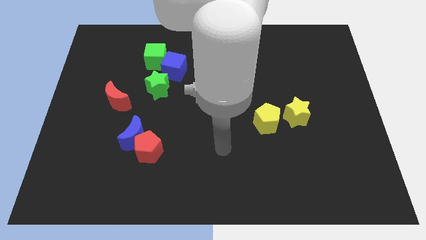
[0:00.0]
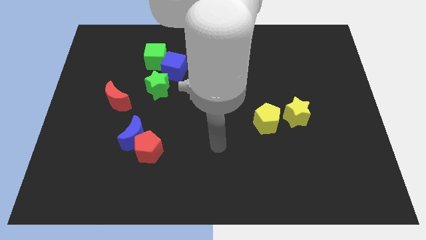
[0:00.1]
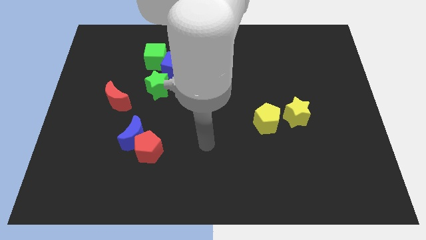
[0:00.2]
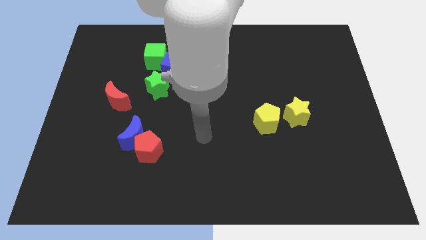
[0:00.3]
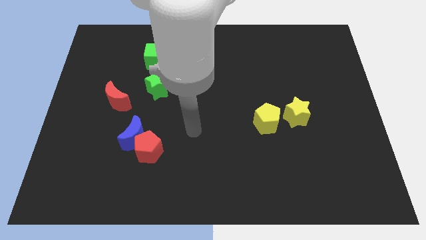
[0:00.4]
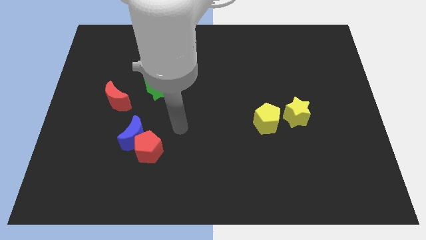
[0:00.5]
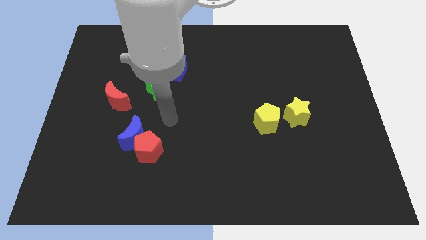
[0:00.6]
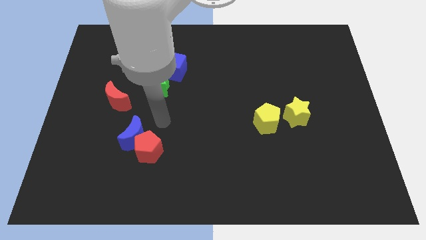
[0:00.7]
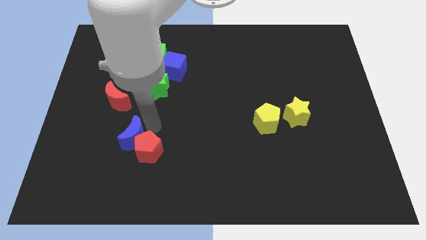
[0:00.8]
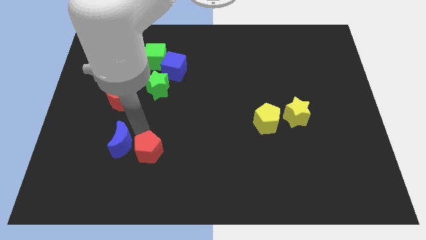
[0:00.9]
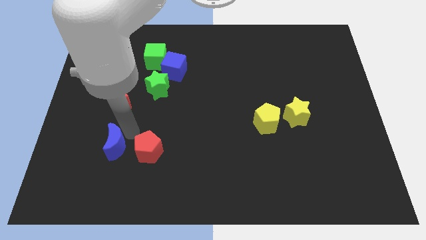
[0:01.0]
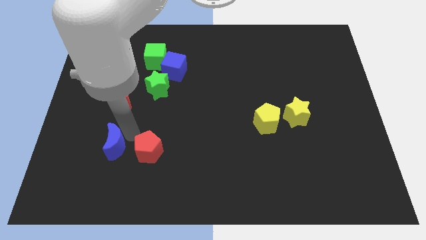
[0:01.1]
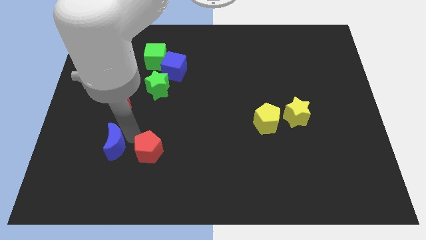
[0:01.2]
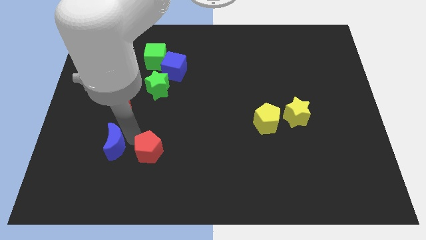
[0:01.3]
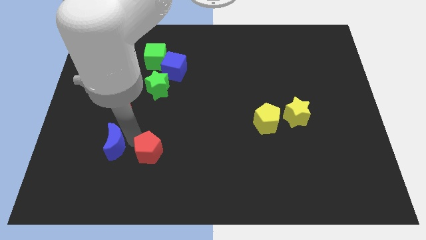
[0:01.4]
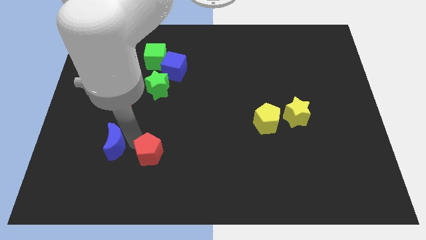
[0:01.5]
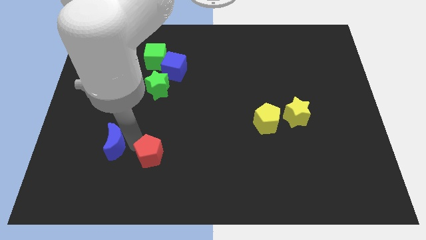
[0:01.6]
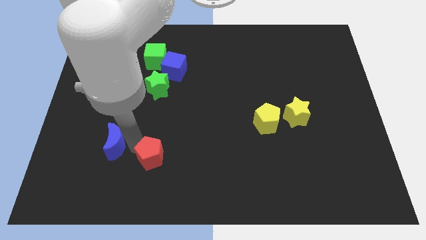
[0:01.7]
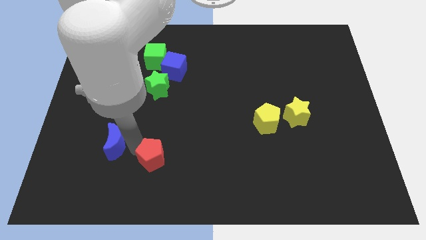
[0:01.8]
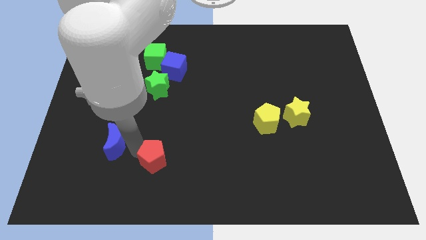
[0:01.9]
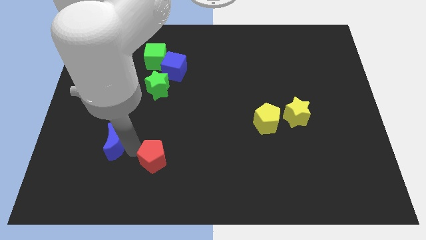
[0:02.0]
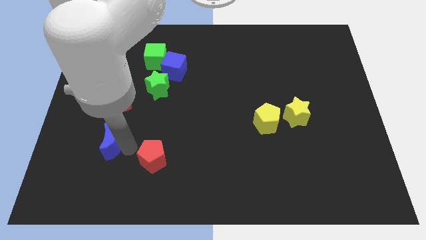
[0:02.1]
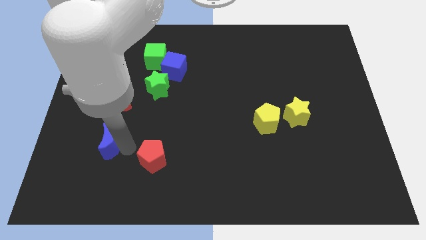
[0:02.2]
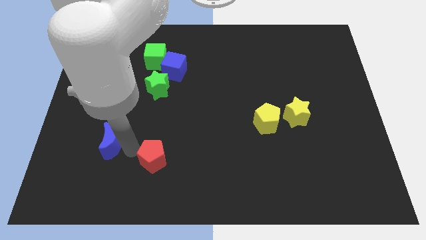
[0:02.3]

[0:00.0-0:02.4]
separate the red pentagon from the blue moon

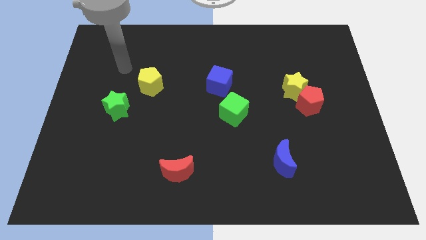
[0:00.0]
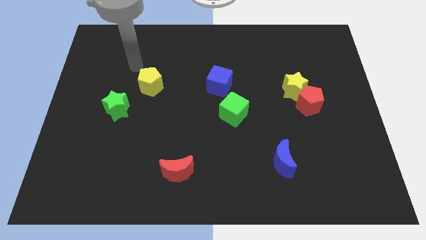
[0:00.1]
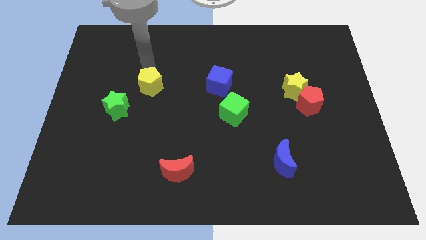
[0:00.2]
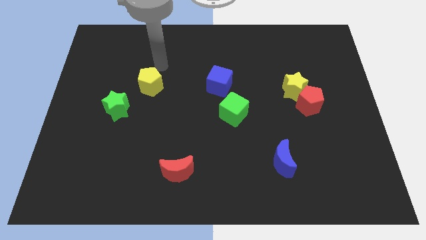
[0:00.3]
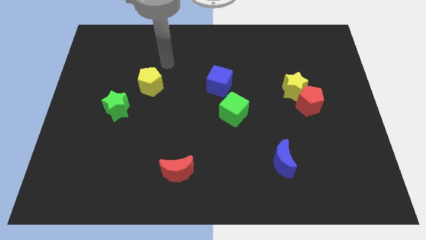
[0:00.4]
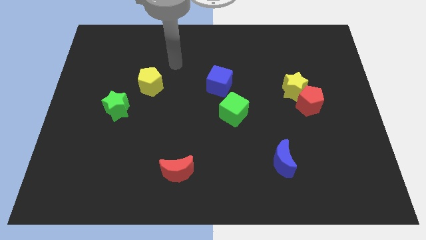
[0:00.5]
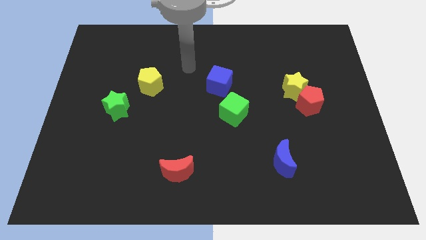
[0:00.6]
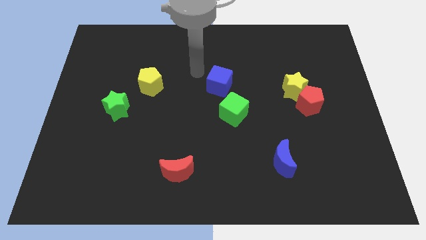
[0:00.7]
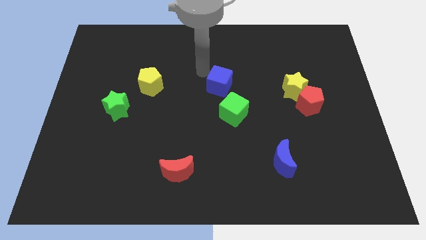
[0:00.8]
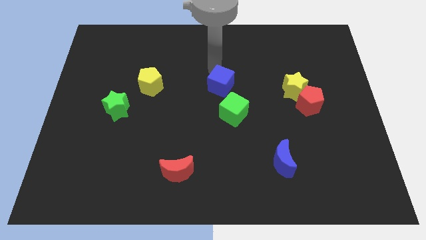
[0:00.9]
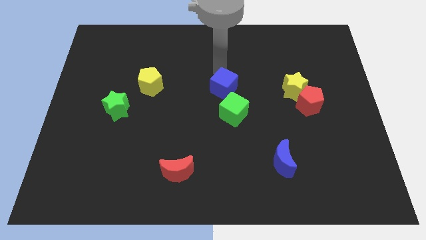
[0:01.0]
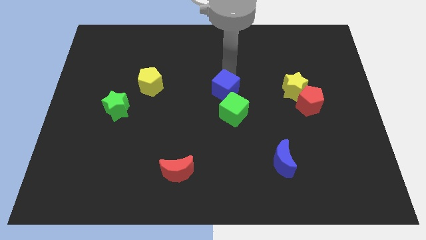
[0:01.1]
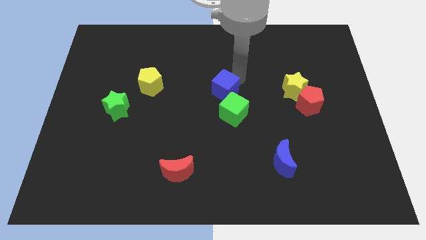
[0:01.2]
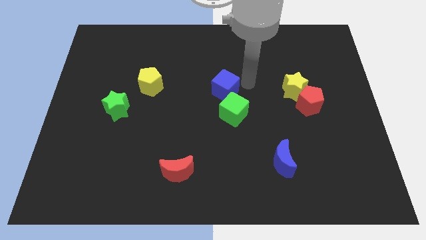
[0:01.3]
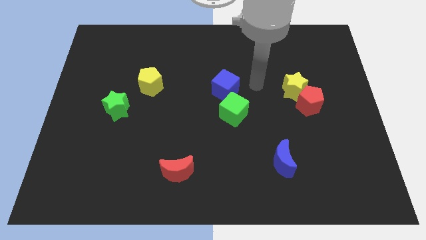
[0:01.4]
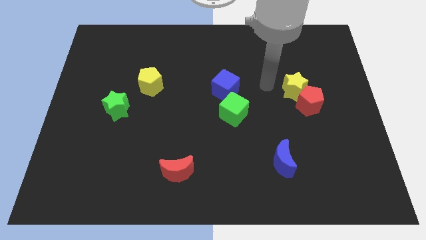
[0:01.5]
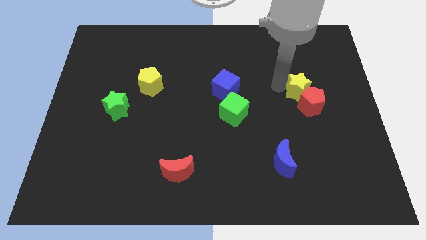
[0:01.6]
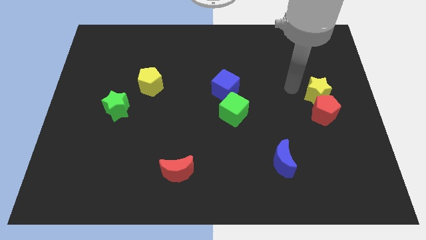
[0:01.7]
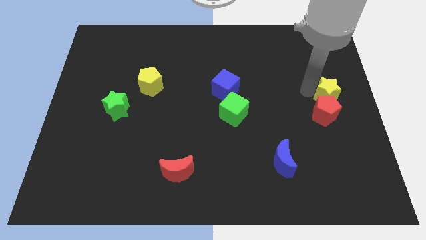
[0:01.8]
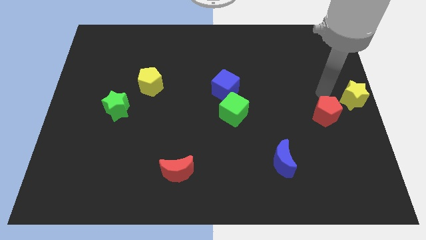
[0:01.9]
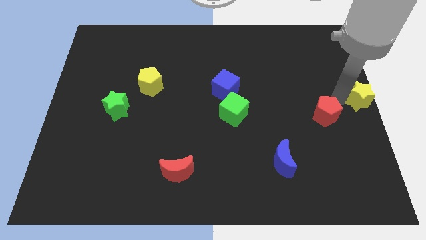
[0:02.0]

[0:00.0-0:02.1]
pull the red pentagon apart from the yellow star

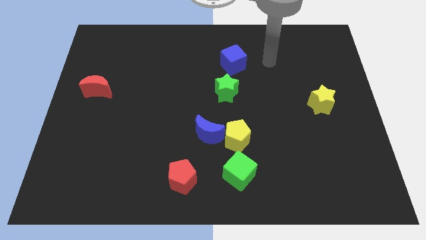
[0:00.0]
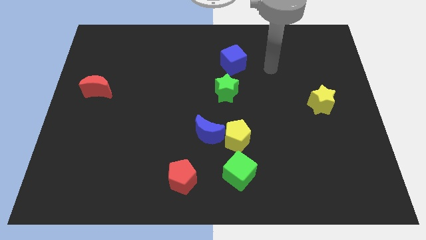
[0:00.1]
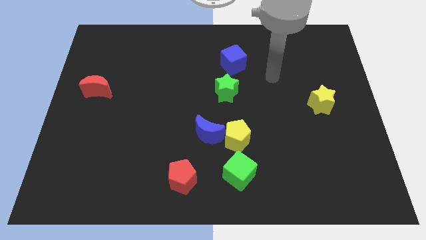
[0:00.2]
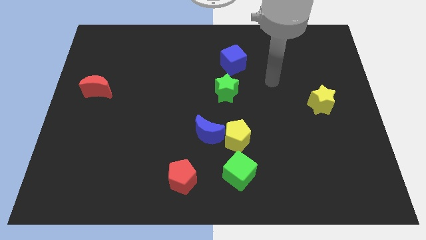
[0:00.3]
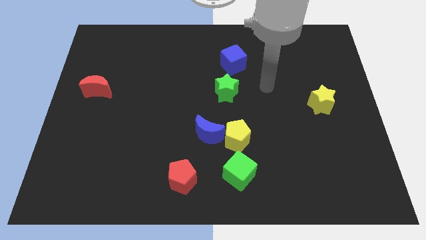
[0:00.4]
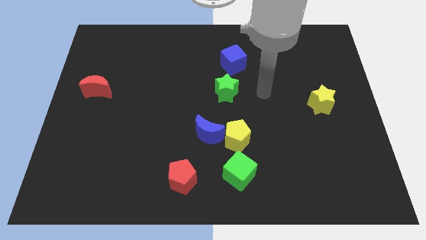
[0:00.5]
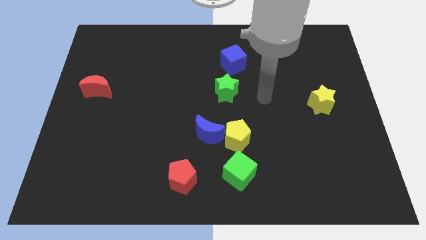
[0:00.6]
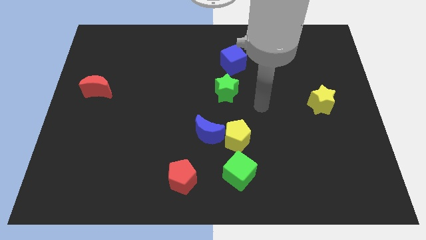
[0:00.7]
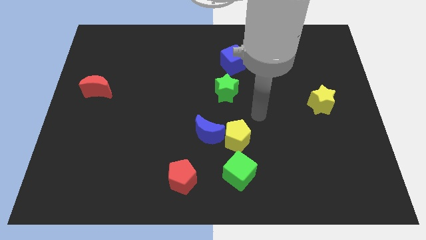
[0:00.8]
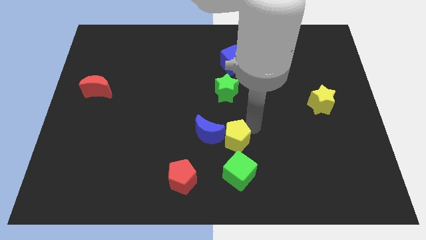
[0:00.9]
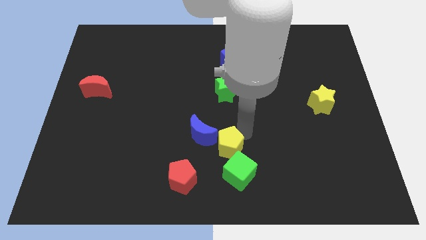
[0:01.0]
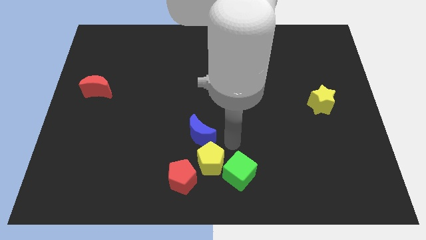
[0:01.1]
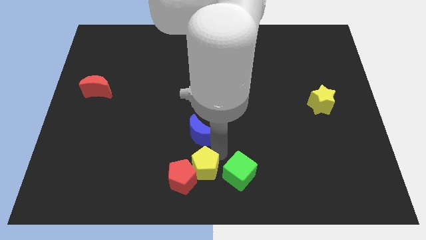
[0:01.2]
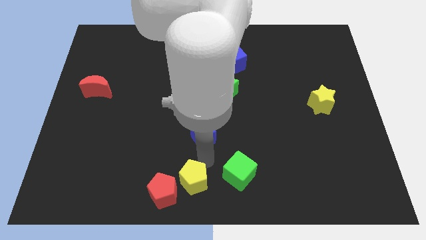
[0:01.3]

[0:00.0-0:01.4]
pull the blue moon apart from the yellow pentagon

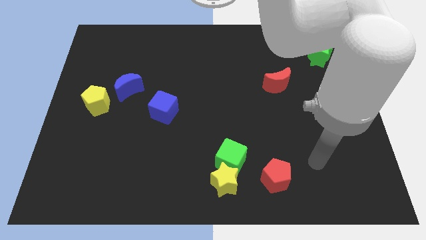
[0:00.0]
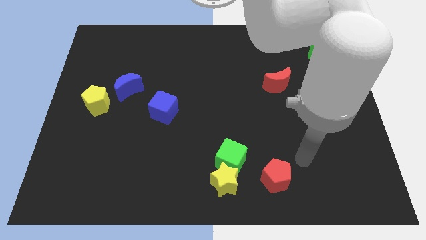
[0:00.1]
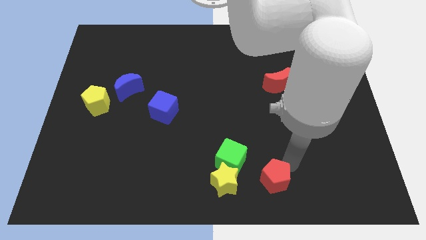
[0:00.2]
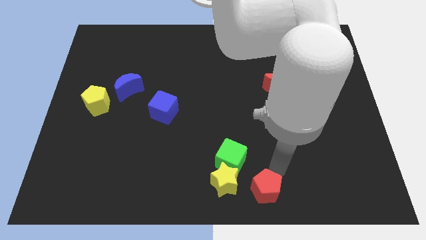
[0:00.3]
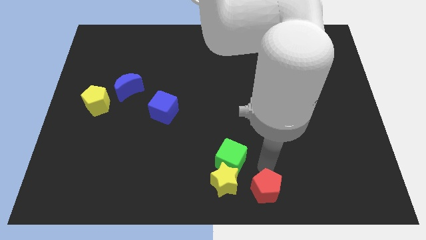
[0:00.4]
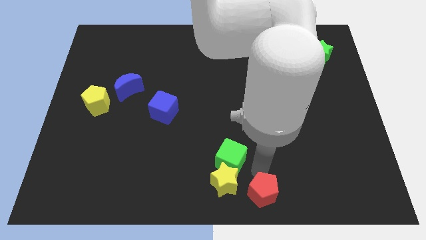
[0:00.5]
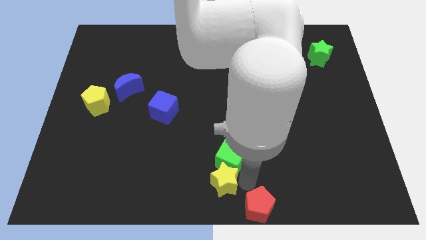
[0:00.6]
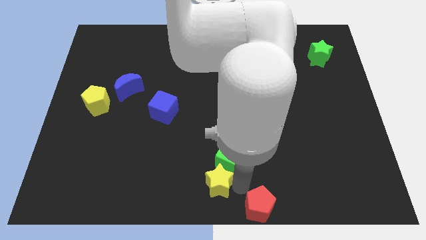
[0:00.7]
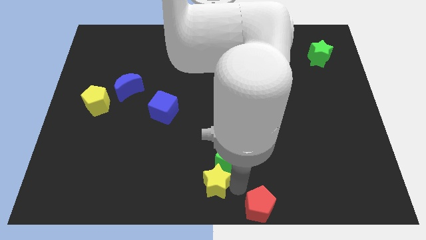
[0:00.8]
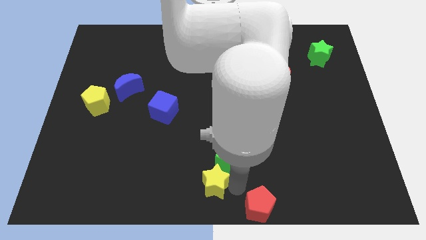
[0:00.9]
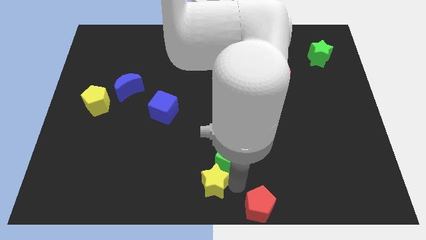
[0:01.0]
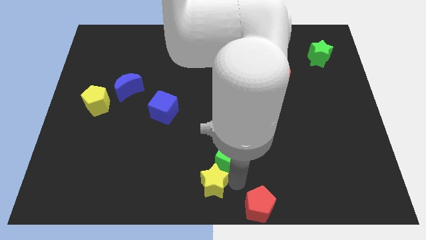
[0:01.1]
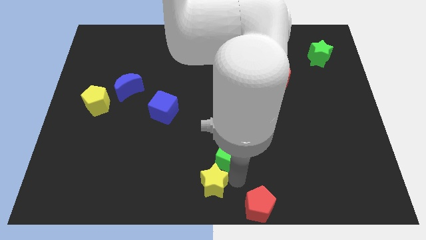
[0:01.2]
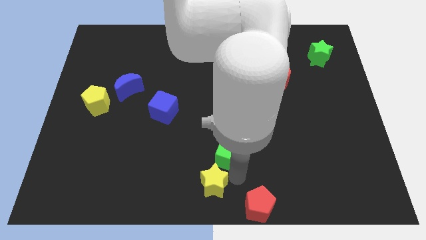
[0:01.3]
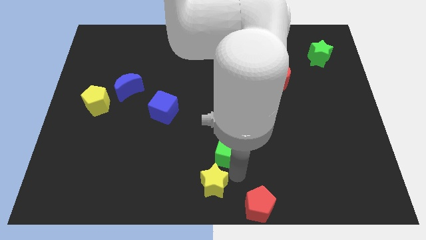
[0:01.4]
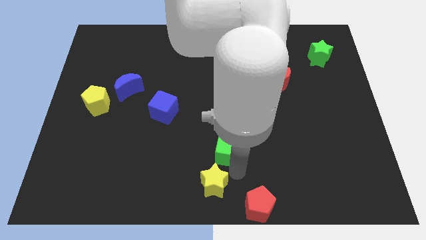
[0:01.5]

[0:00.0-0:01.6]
separate the green cube from the yellow star and red pentagon

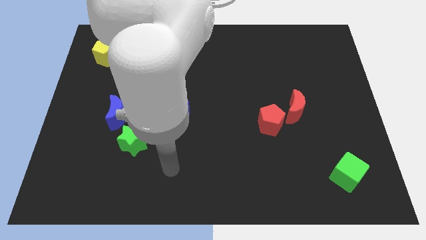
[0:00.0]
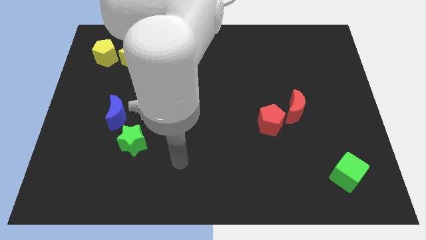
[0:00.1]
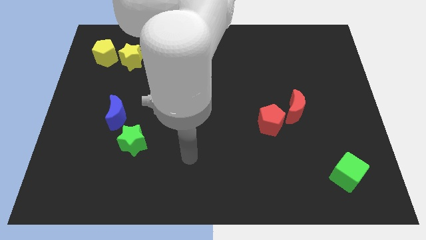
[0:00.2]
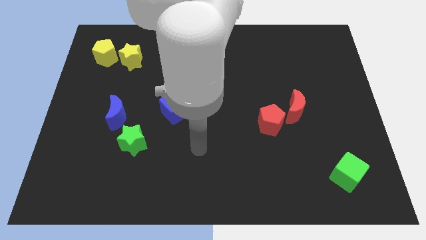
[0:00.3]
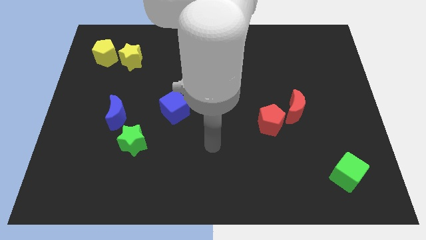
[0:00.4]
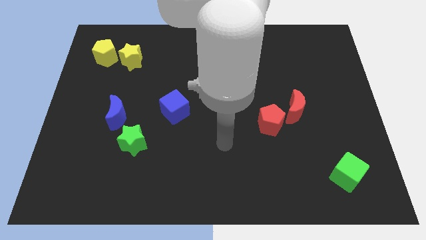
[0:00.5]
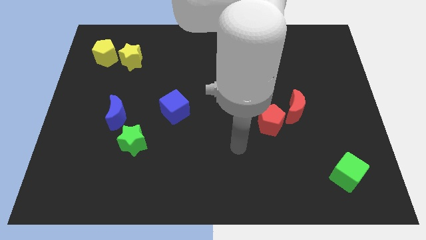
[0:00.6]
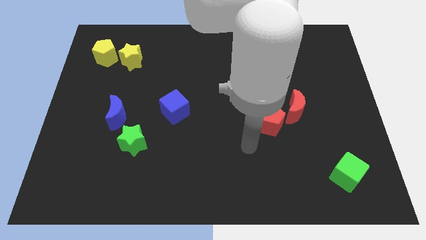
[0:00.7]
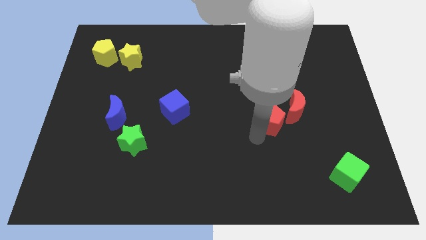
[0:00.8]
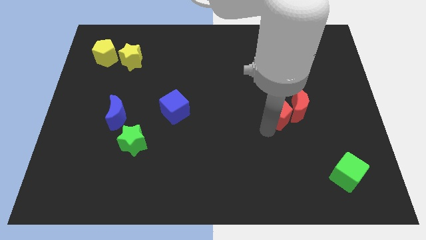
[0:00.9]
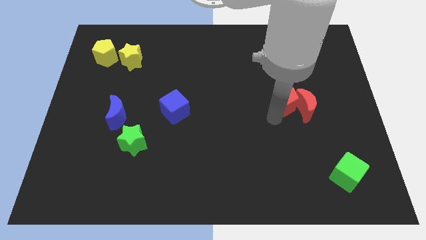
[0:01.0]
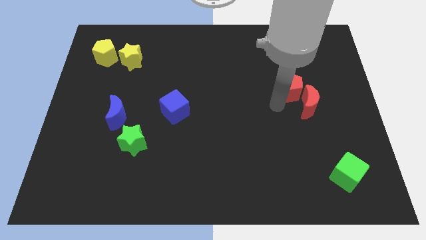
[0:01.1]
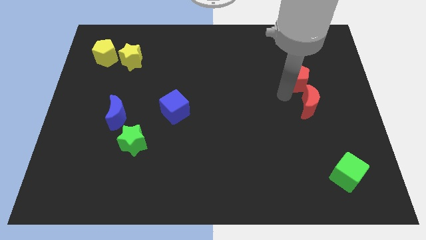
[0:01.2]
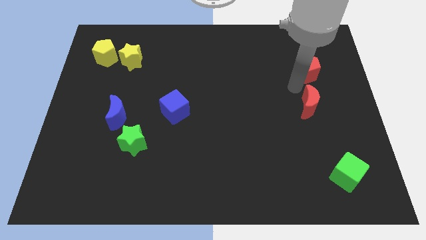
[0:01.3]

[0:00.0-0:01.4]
separate the red moon from the red pentagon

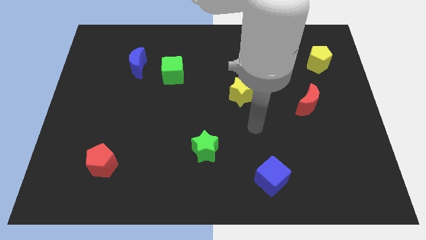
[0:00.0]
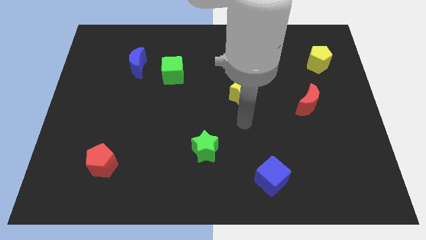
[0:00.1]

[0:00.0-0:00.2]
separate the blue moon from the green cube
